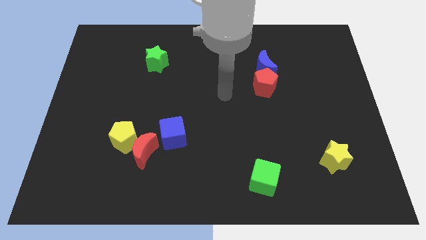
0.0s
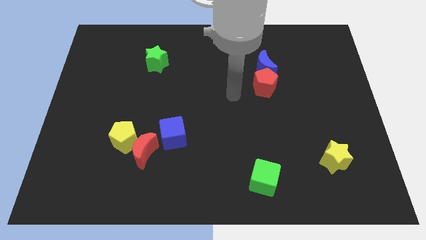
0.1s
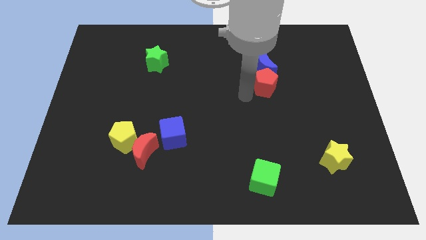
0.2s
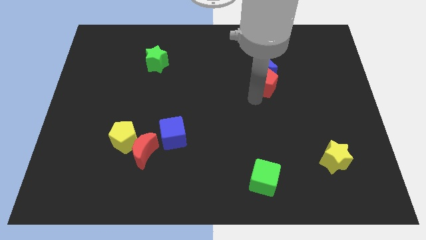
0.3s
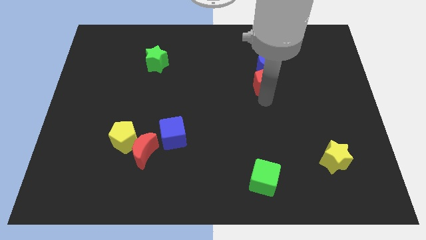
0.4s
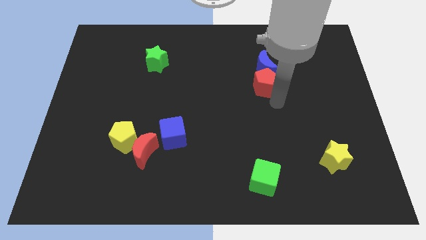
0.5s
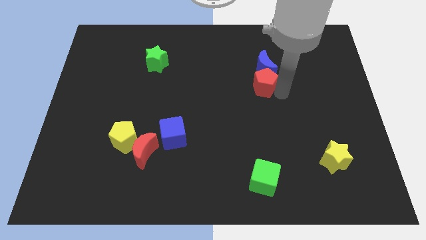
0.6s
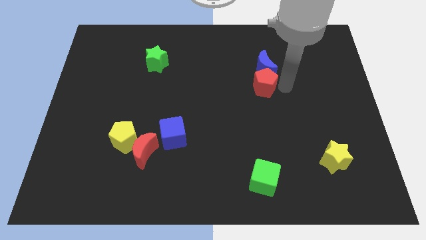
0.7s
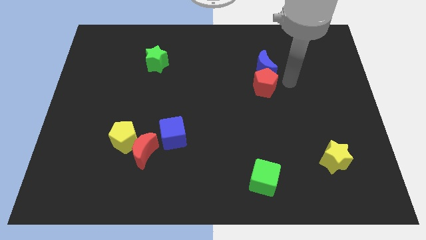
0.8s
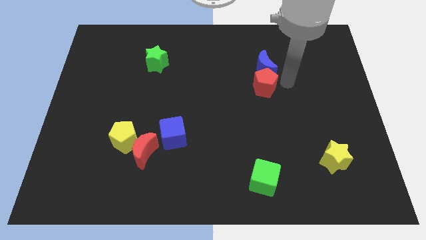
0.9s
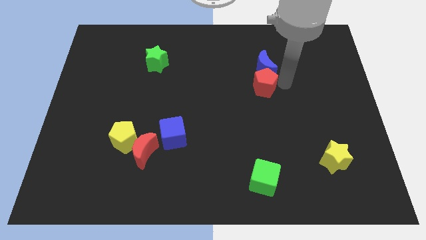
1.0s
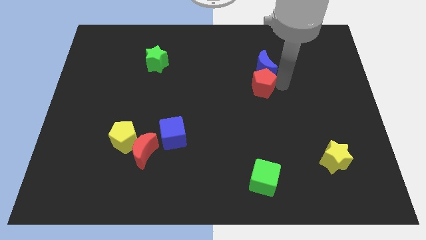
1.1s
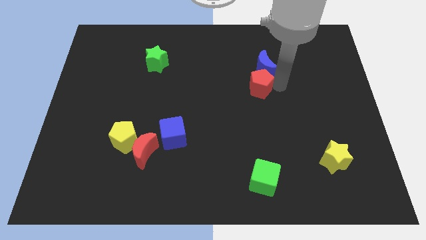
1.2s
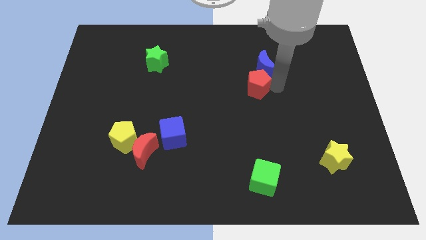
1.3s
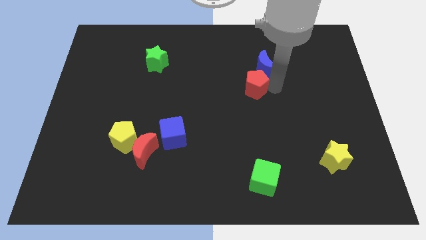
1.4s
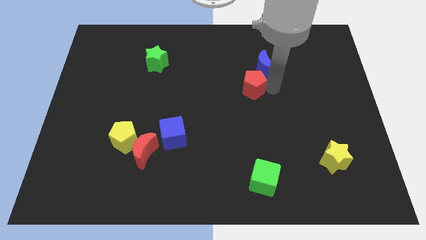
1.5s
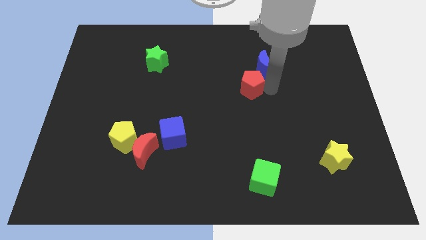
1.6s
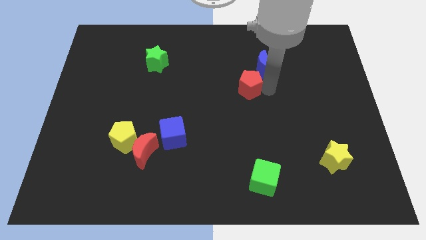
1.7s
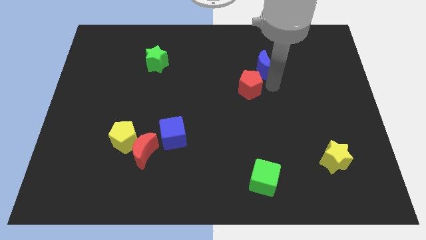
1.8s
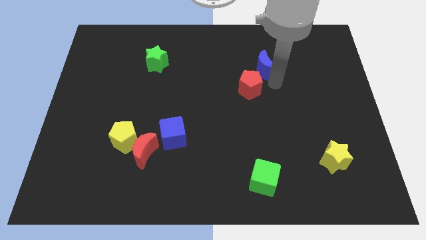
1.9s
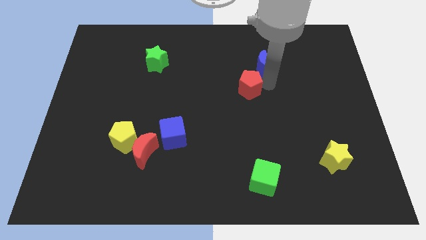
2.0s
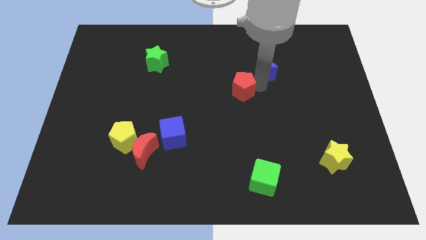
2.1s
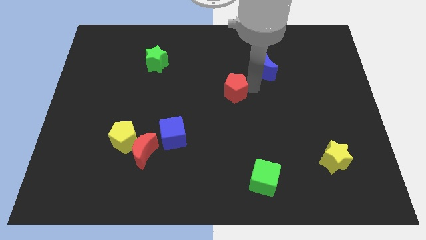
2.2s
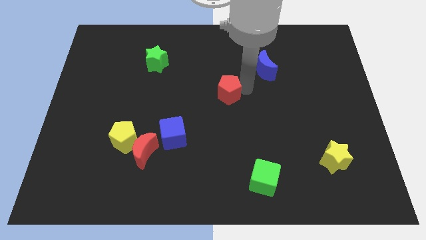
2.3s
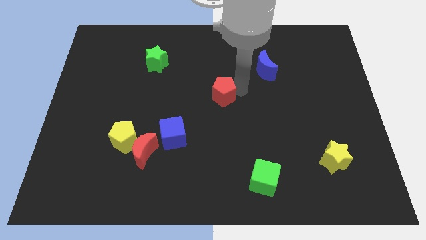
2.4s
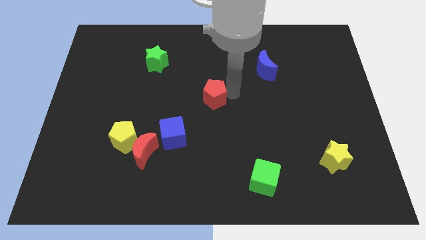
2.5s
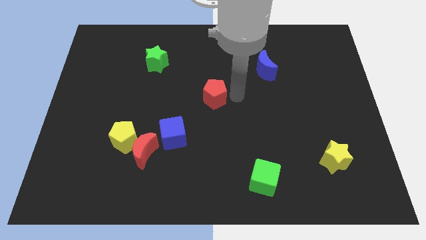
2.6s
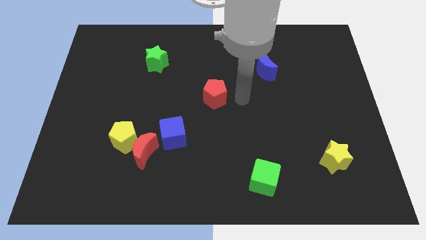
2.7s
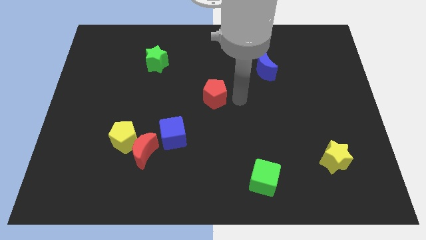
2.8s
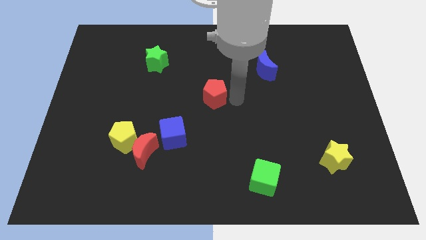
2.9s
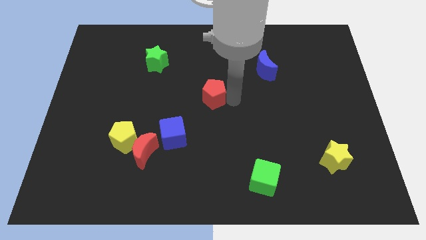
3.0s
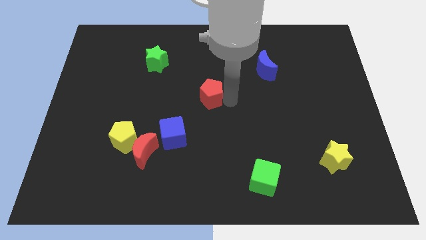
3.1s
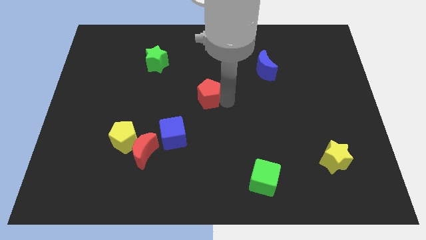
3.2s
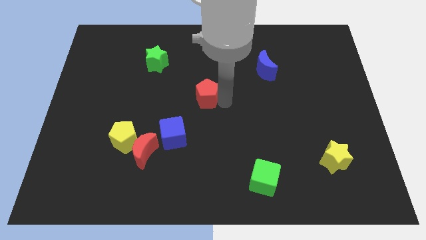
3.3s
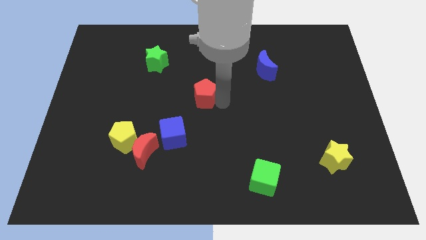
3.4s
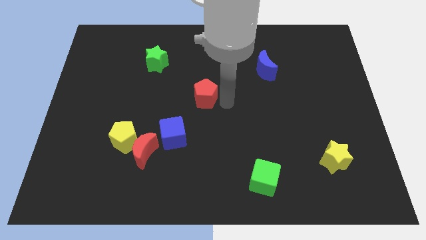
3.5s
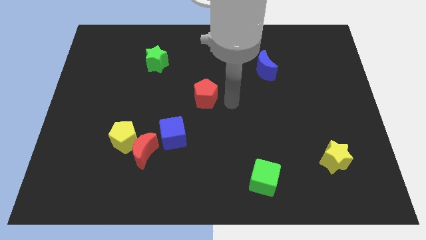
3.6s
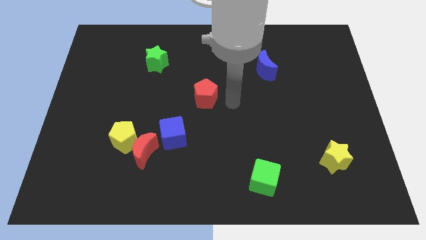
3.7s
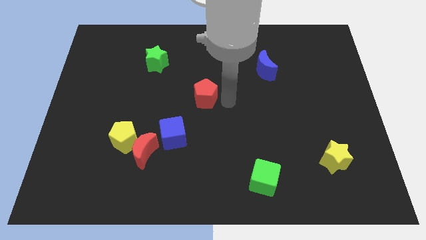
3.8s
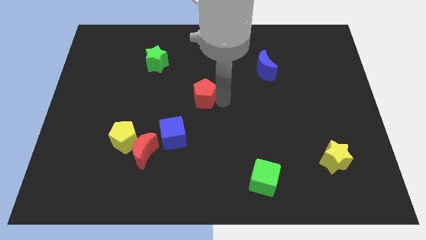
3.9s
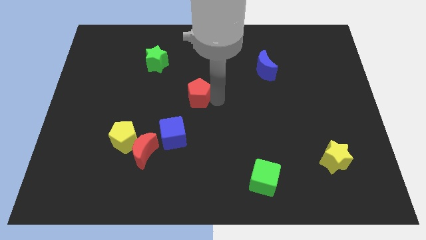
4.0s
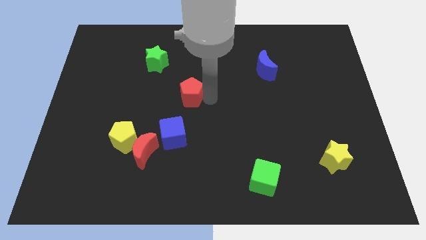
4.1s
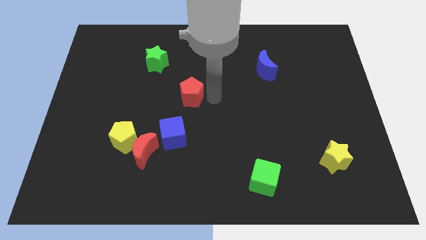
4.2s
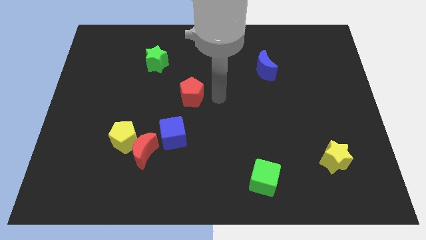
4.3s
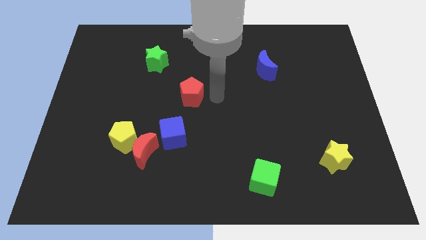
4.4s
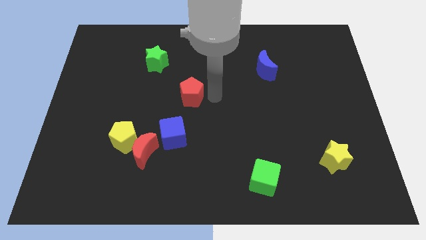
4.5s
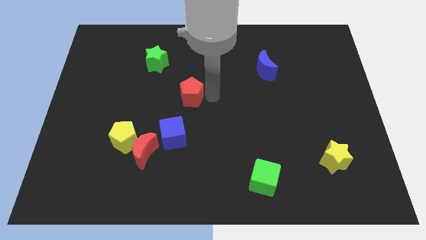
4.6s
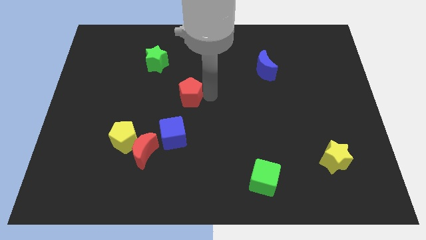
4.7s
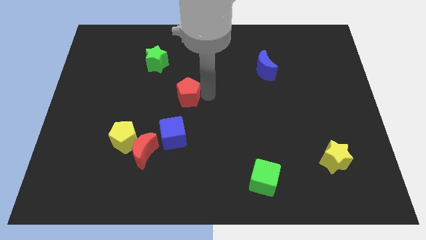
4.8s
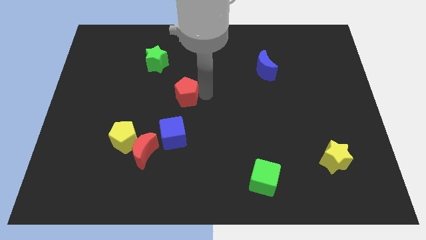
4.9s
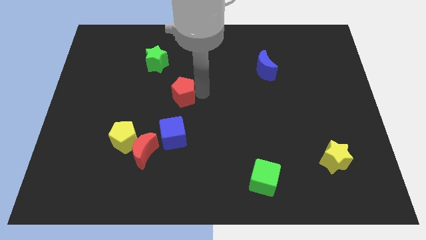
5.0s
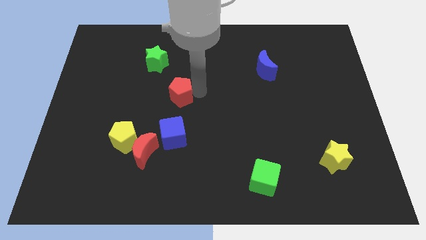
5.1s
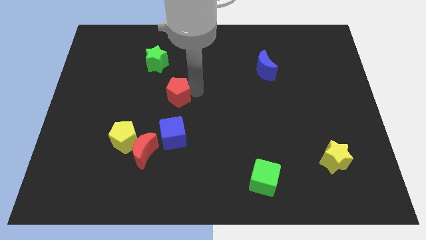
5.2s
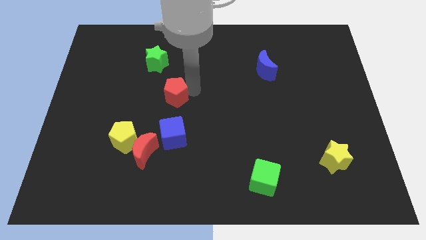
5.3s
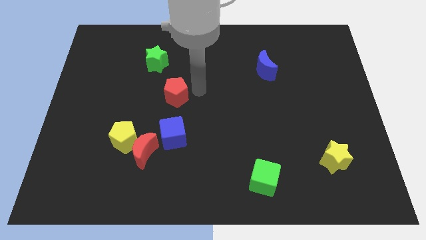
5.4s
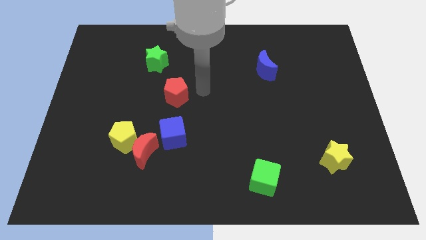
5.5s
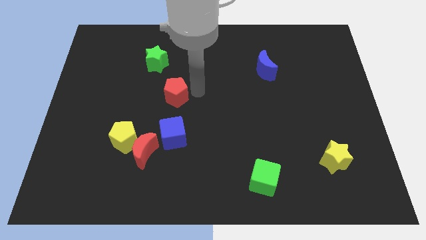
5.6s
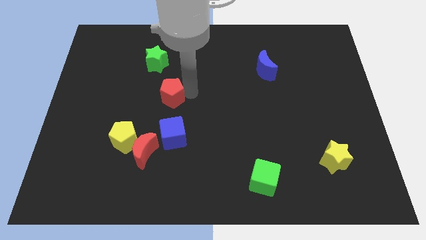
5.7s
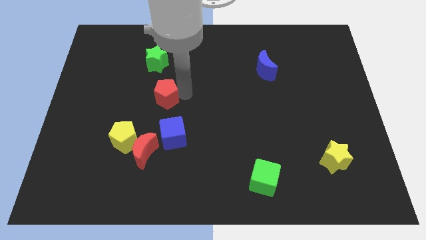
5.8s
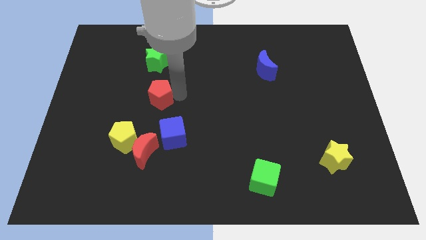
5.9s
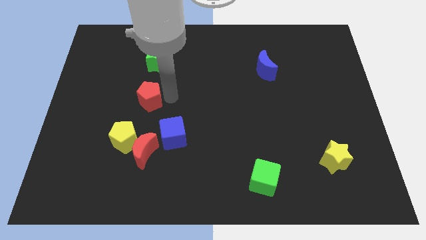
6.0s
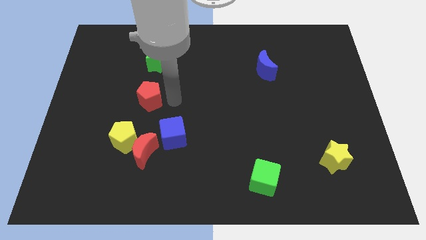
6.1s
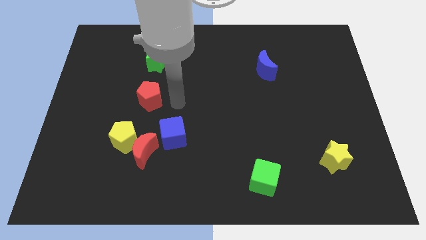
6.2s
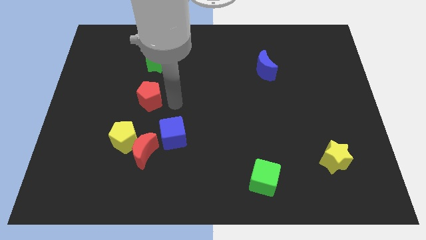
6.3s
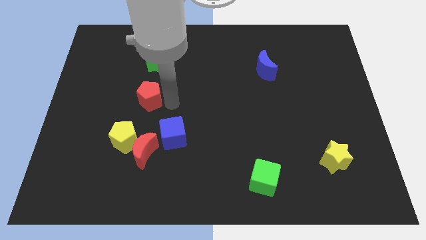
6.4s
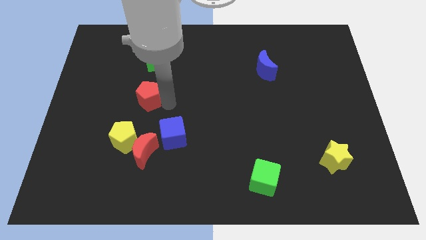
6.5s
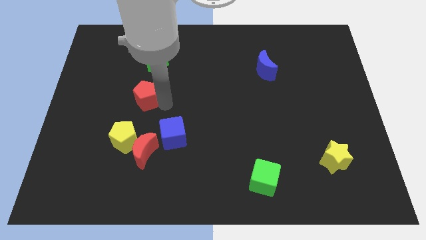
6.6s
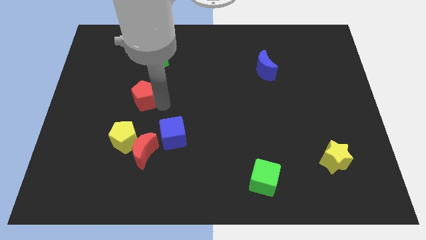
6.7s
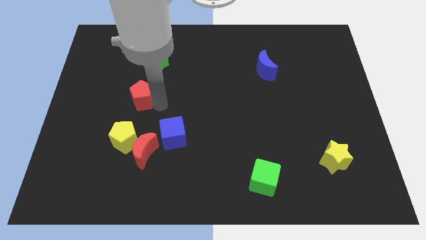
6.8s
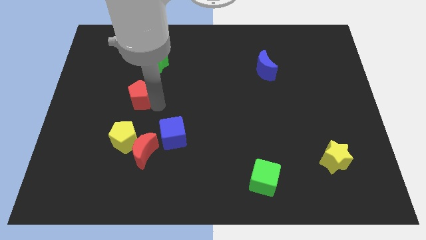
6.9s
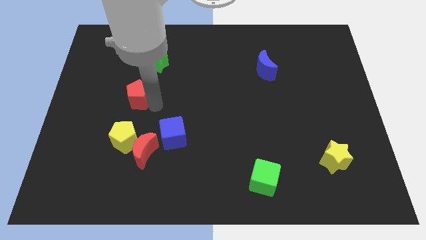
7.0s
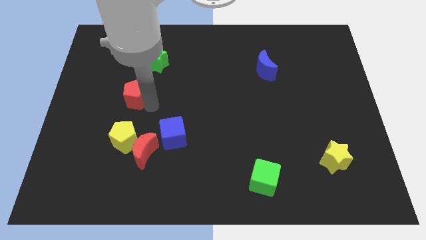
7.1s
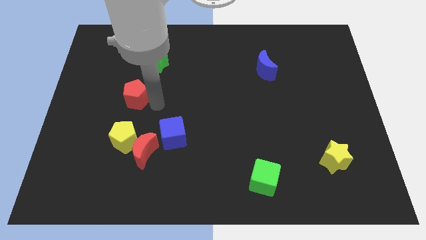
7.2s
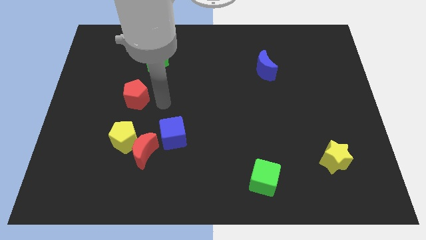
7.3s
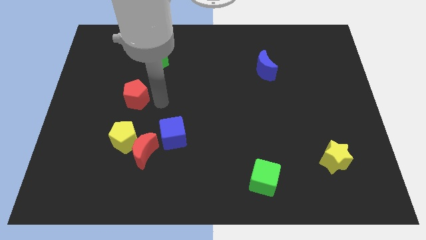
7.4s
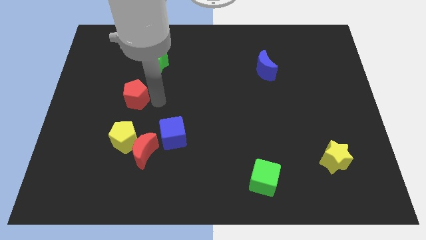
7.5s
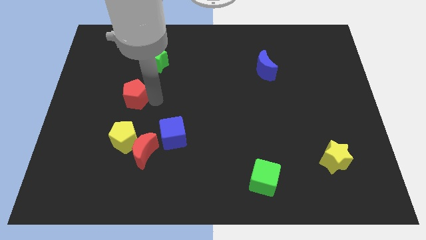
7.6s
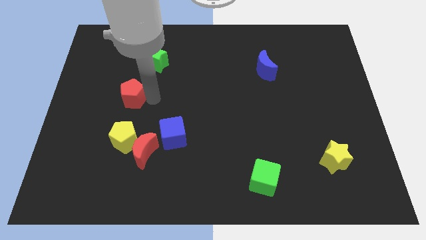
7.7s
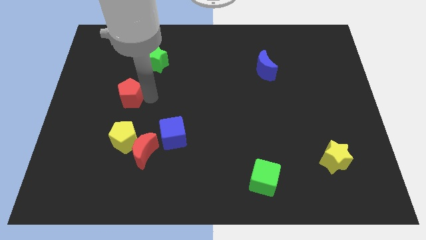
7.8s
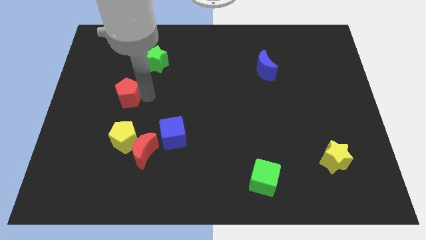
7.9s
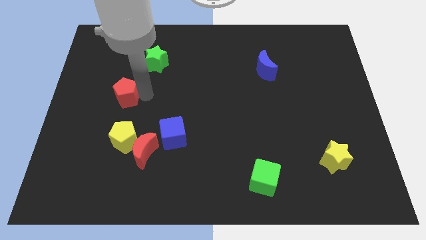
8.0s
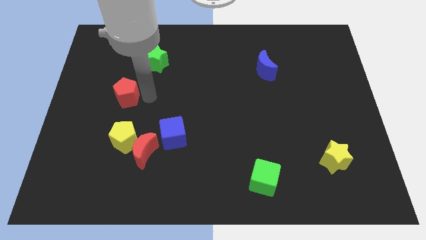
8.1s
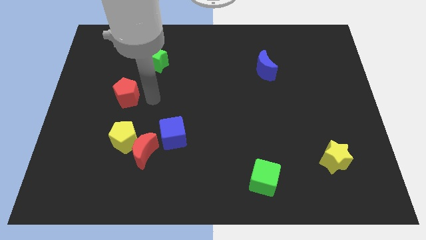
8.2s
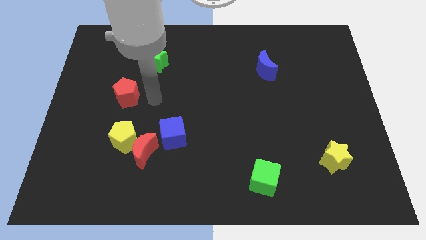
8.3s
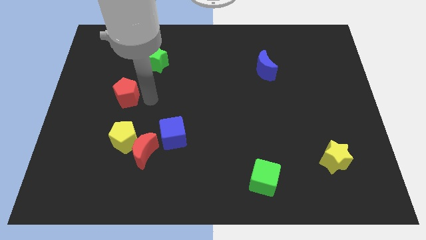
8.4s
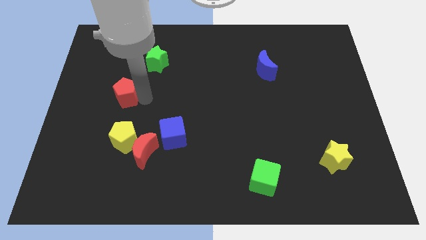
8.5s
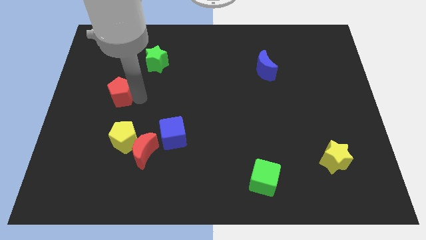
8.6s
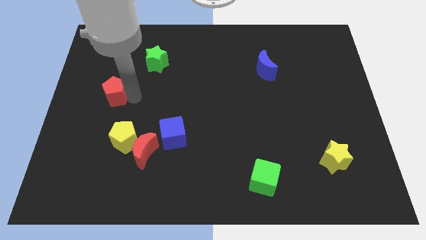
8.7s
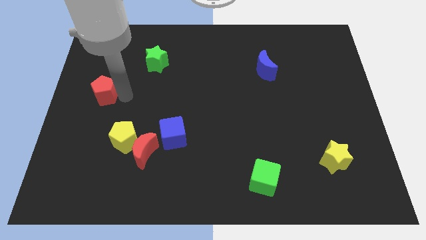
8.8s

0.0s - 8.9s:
push the red pentagon to the left side of the board
